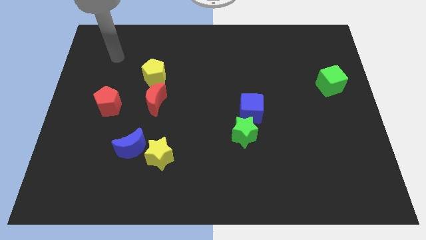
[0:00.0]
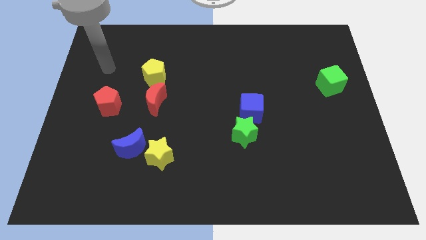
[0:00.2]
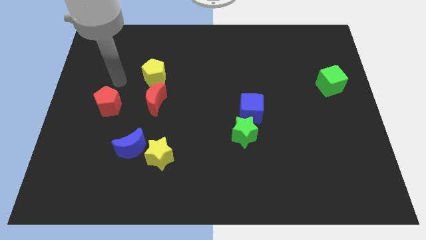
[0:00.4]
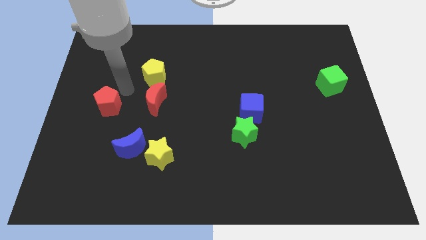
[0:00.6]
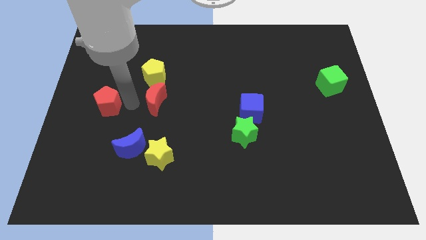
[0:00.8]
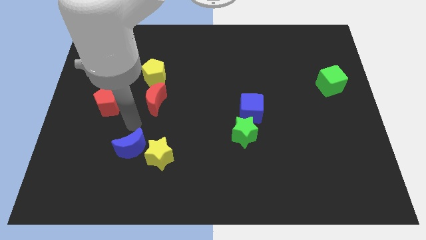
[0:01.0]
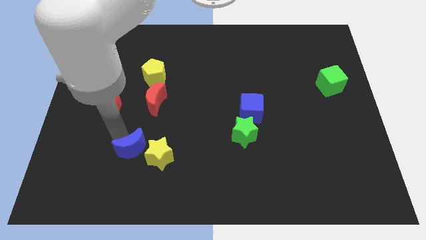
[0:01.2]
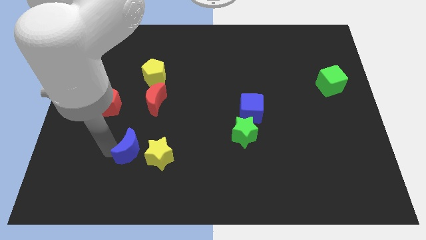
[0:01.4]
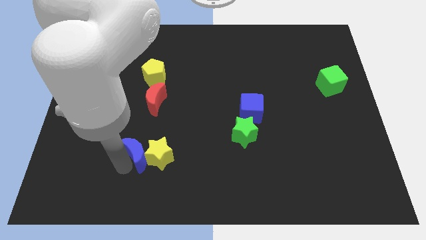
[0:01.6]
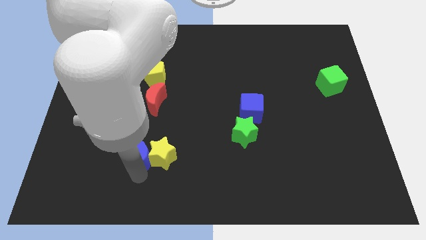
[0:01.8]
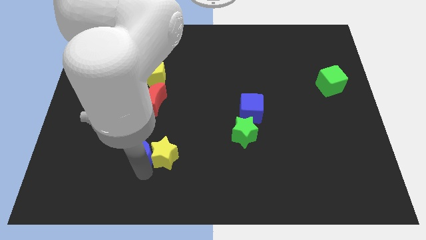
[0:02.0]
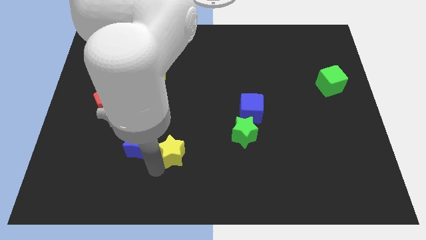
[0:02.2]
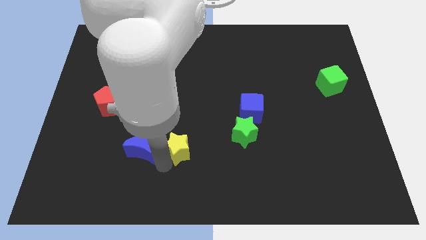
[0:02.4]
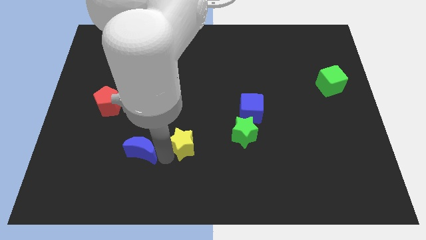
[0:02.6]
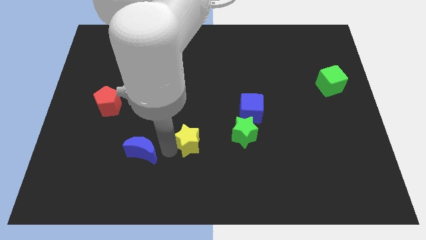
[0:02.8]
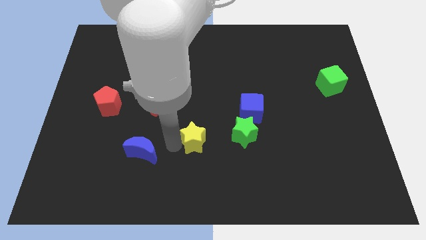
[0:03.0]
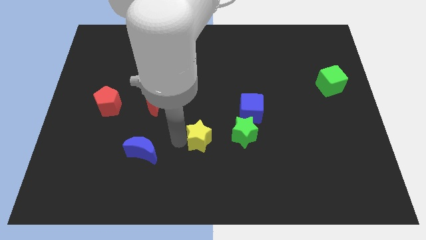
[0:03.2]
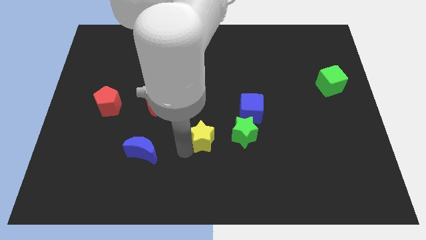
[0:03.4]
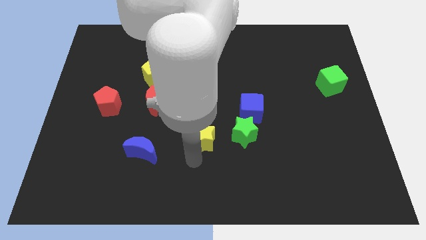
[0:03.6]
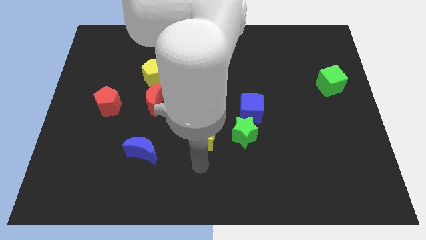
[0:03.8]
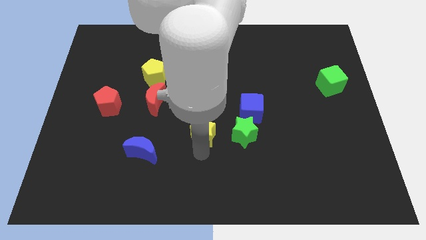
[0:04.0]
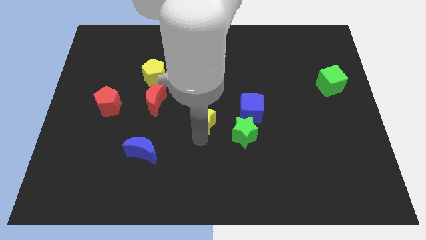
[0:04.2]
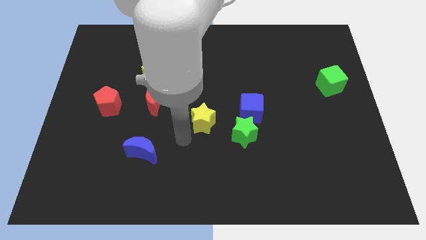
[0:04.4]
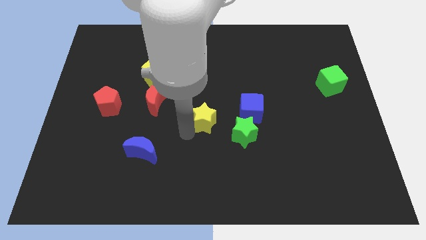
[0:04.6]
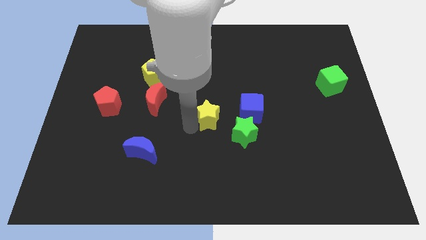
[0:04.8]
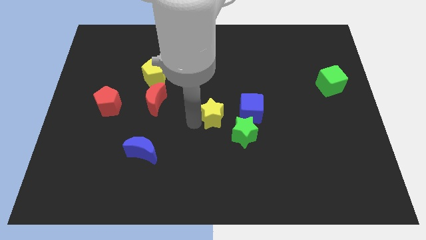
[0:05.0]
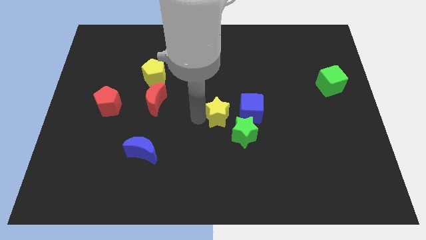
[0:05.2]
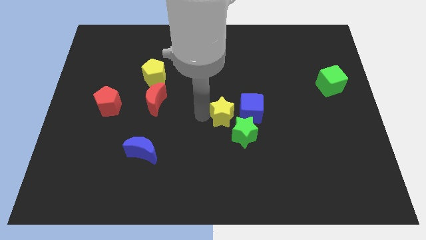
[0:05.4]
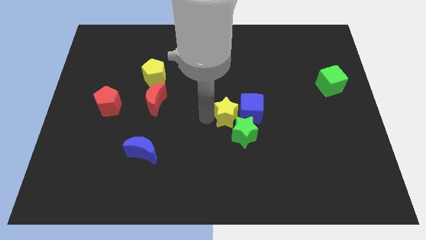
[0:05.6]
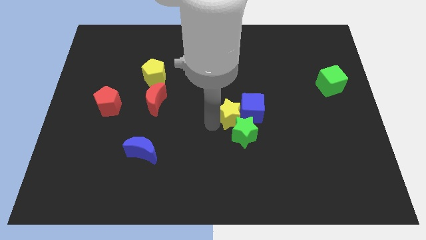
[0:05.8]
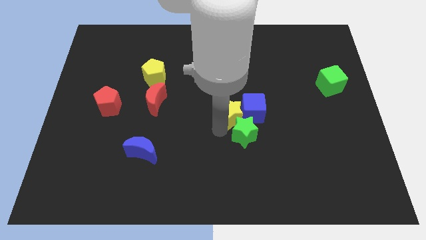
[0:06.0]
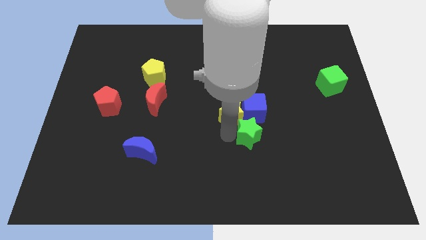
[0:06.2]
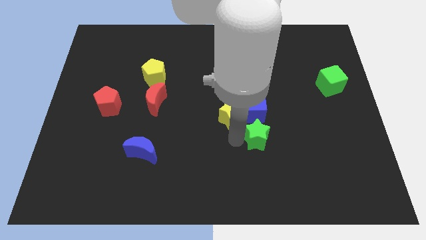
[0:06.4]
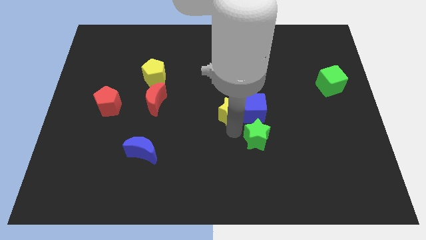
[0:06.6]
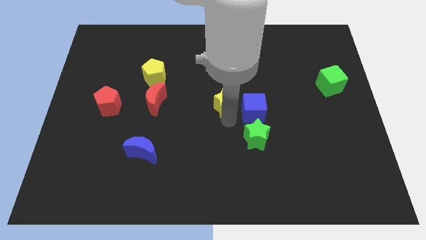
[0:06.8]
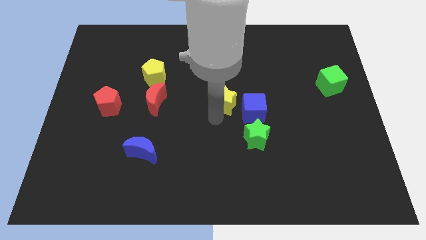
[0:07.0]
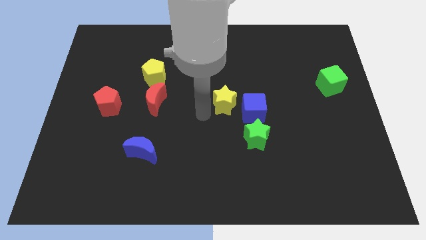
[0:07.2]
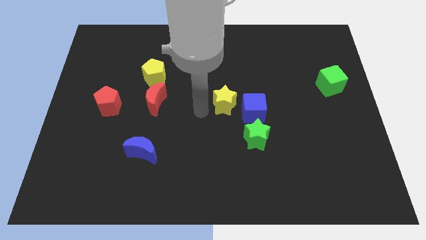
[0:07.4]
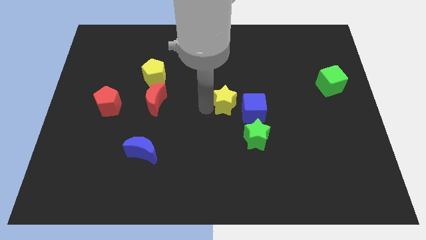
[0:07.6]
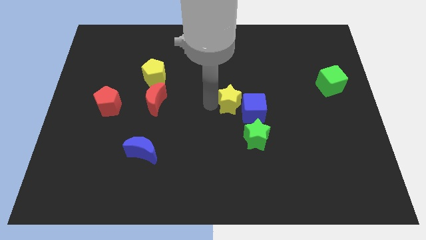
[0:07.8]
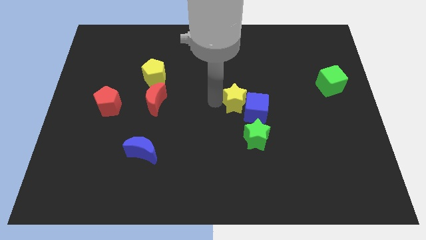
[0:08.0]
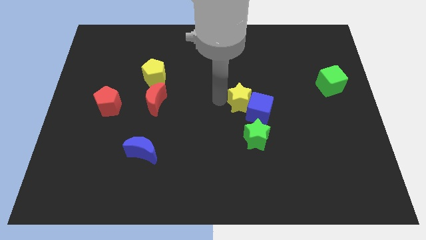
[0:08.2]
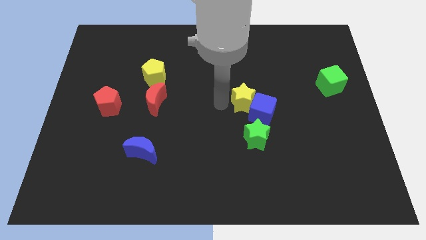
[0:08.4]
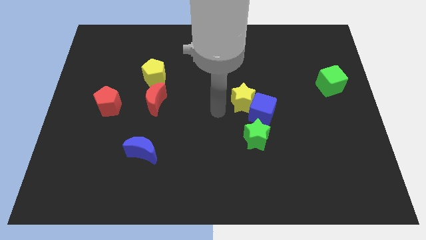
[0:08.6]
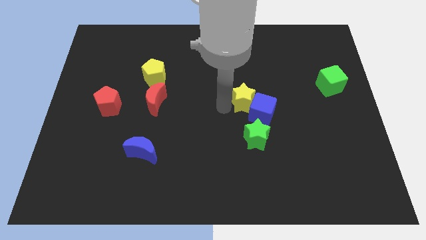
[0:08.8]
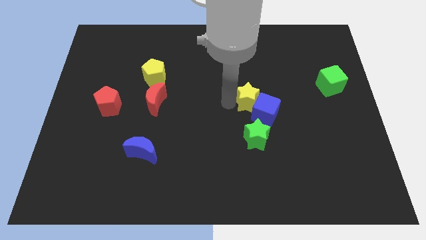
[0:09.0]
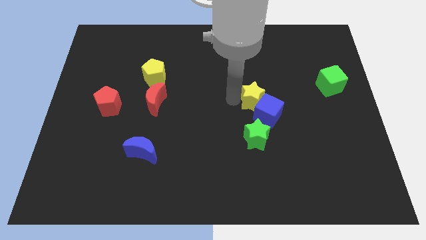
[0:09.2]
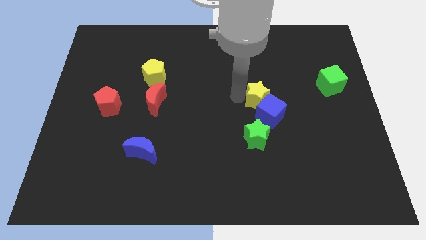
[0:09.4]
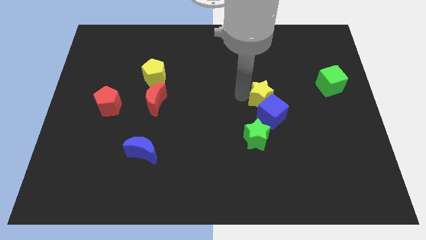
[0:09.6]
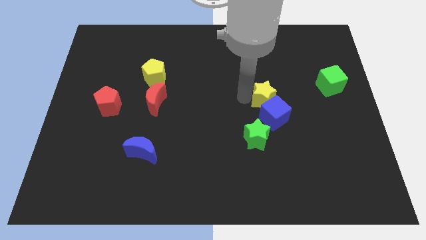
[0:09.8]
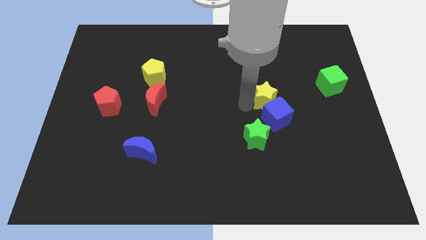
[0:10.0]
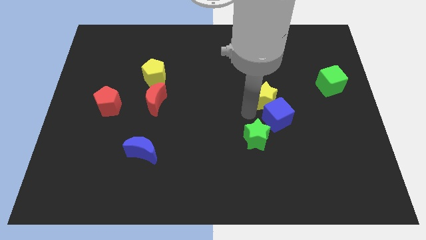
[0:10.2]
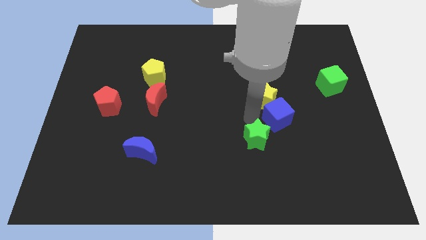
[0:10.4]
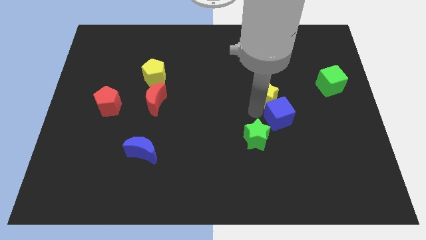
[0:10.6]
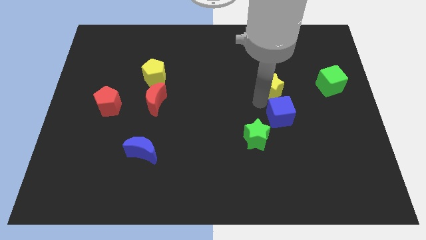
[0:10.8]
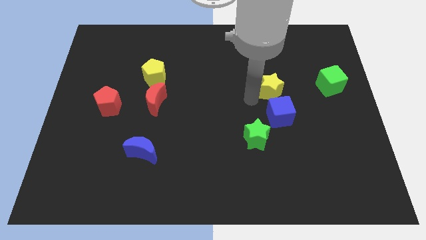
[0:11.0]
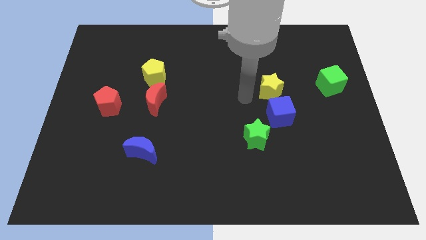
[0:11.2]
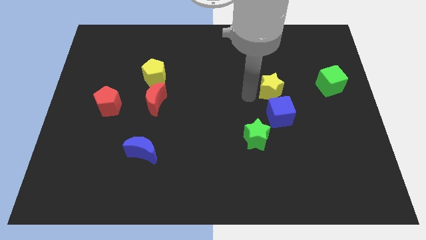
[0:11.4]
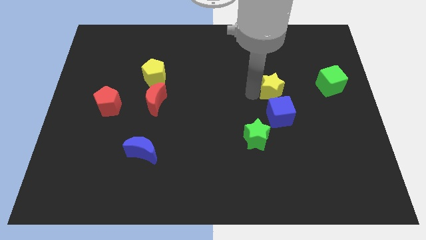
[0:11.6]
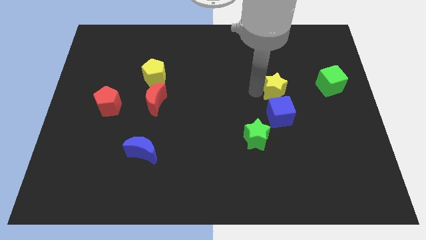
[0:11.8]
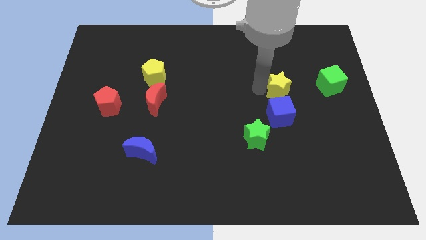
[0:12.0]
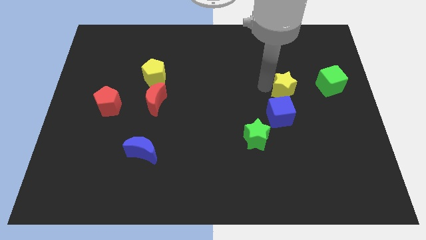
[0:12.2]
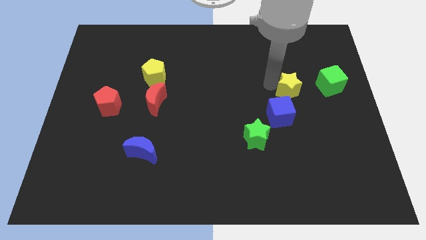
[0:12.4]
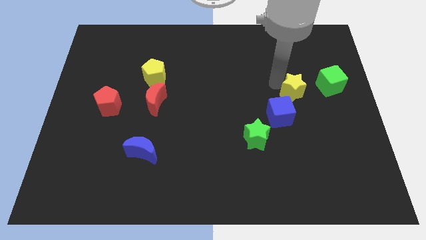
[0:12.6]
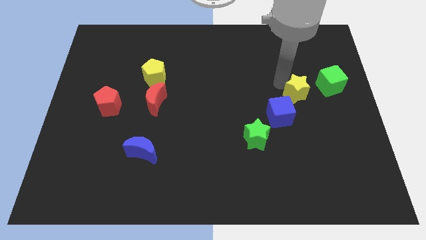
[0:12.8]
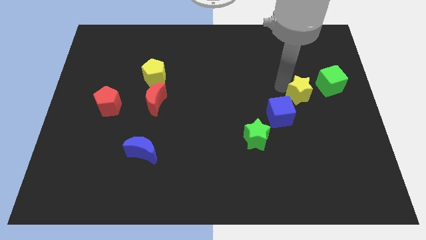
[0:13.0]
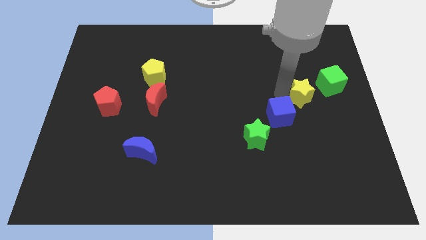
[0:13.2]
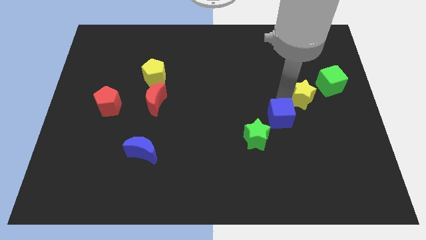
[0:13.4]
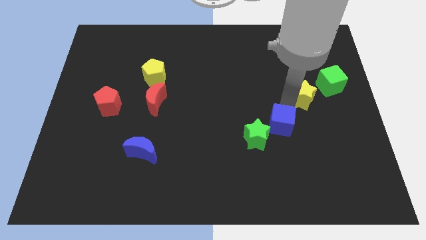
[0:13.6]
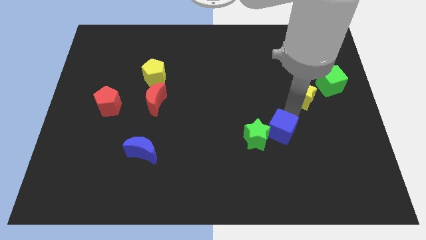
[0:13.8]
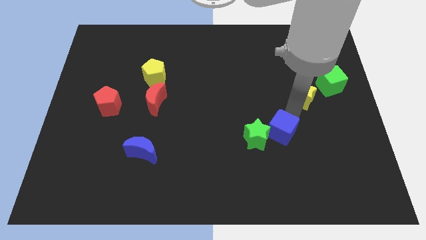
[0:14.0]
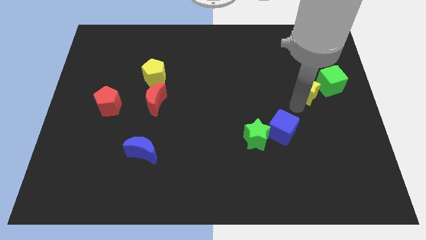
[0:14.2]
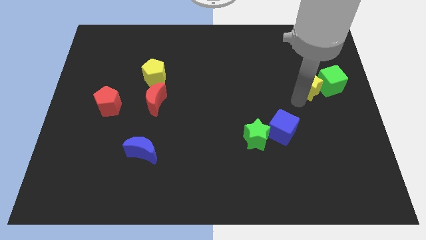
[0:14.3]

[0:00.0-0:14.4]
put the yellow star to the green cube

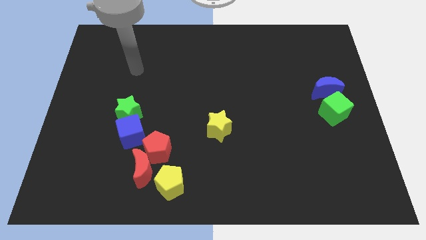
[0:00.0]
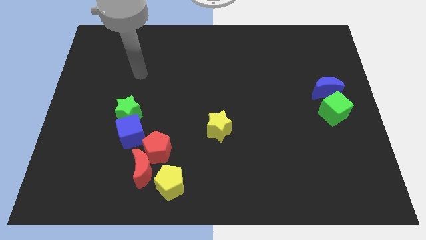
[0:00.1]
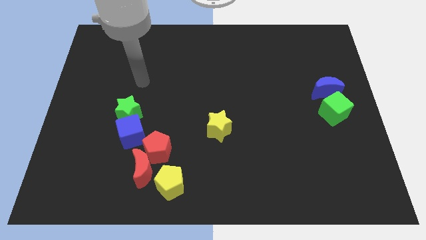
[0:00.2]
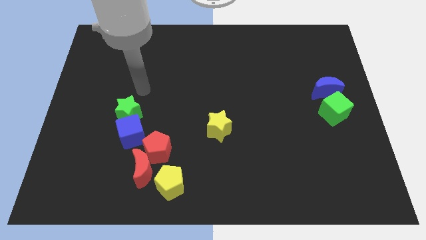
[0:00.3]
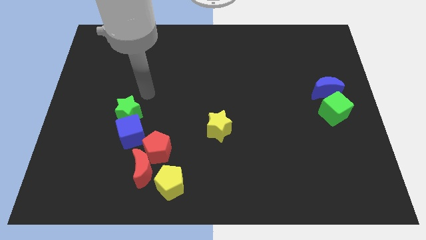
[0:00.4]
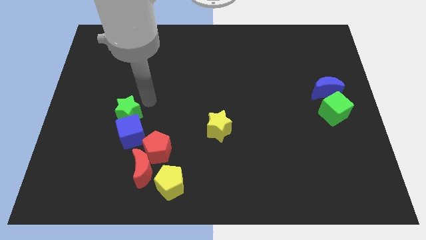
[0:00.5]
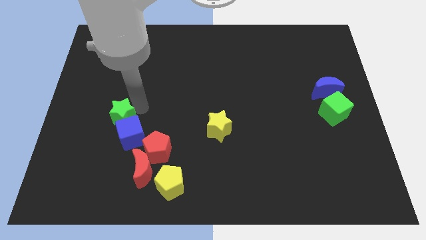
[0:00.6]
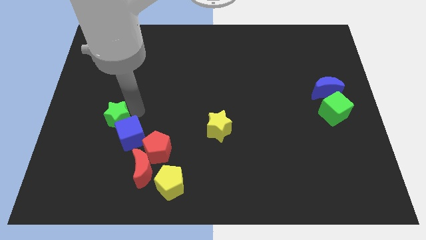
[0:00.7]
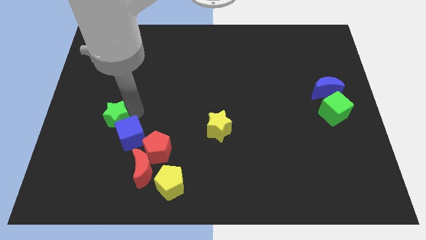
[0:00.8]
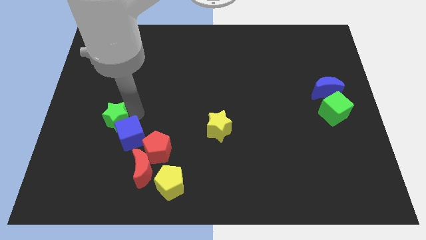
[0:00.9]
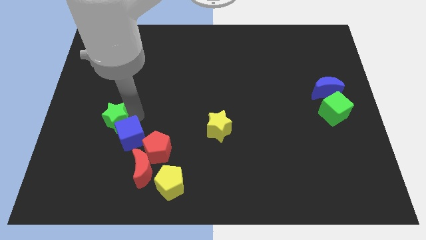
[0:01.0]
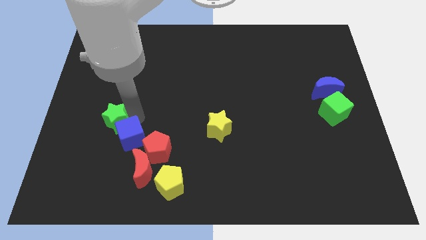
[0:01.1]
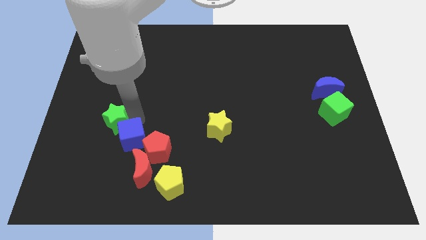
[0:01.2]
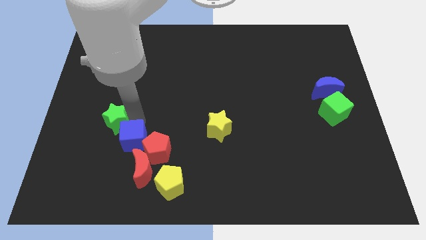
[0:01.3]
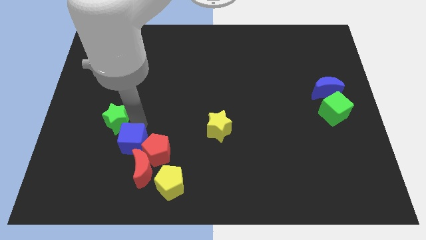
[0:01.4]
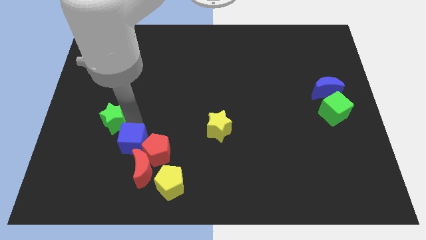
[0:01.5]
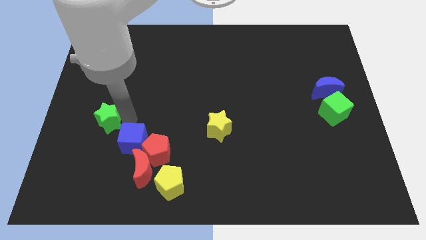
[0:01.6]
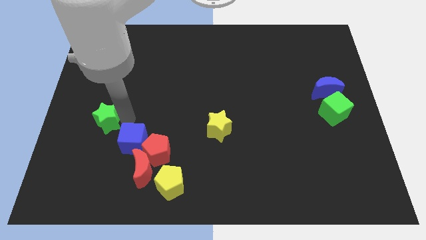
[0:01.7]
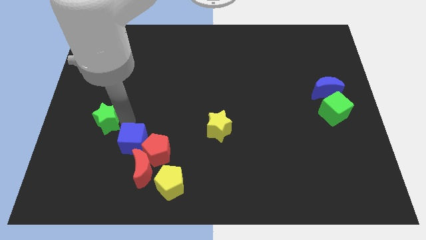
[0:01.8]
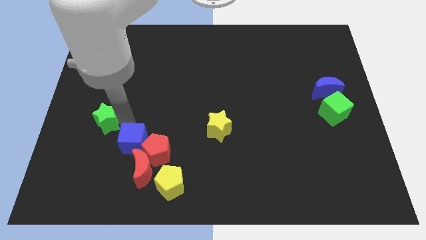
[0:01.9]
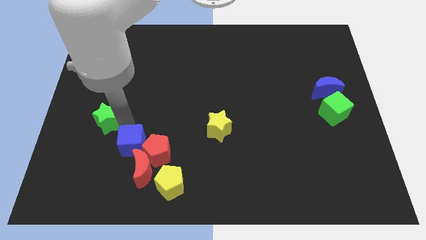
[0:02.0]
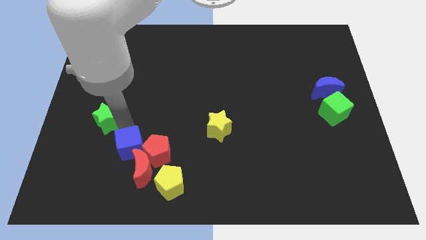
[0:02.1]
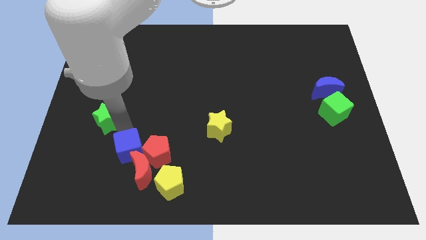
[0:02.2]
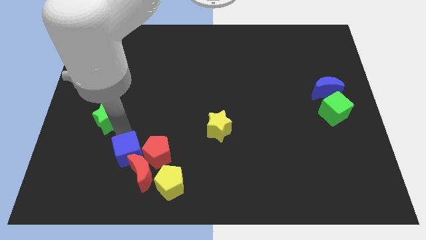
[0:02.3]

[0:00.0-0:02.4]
push the blue cube towards the red moon
